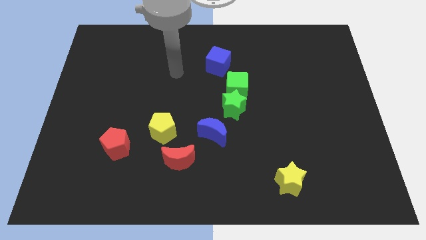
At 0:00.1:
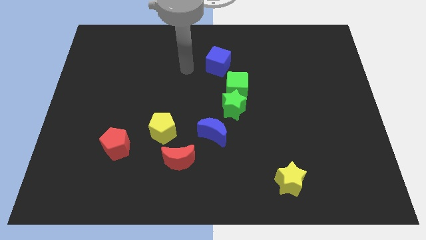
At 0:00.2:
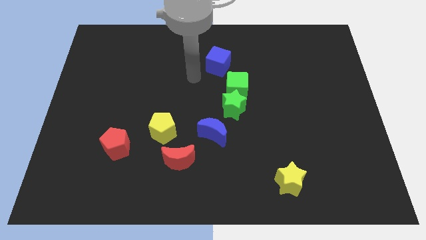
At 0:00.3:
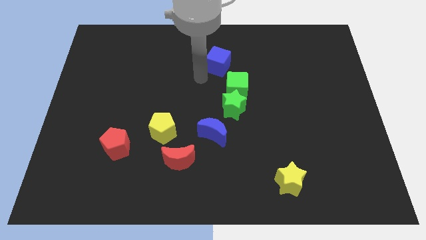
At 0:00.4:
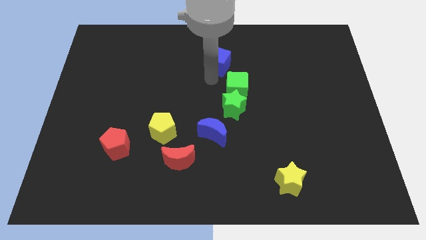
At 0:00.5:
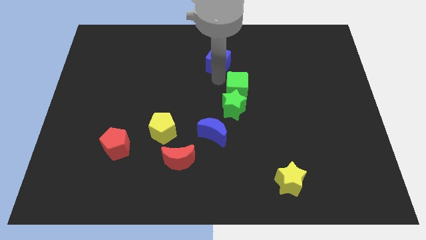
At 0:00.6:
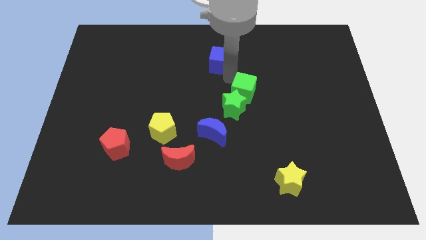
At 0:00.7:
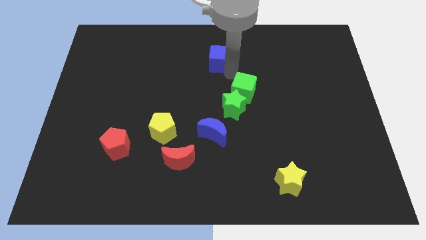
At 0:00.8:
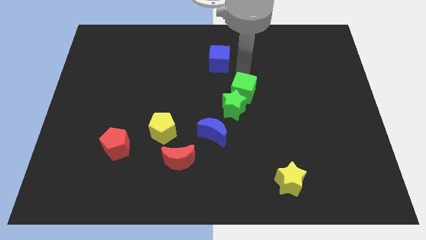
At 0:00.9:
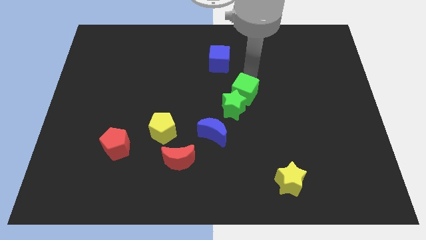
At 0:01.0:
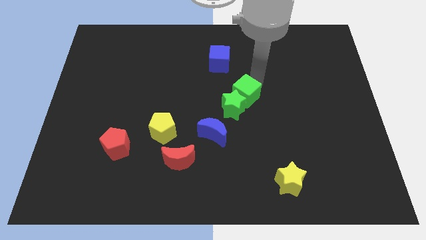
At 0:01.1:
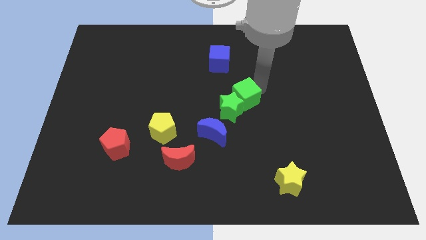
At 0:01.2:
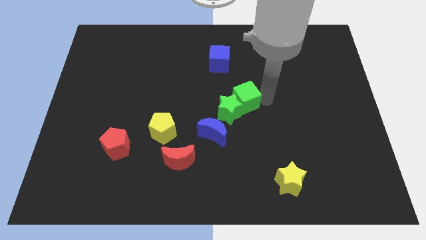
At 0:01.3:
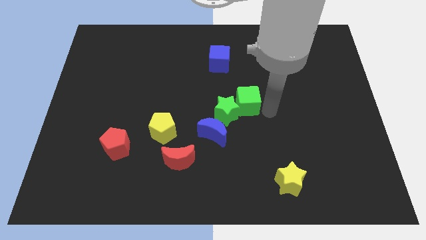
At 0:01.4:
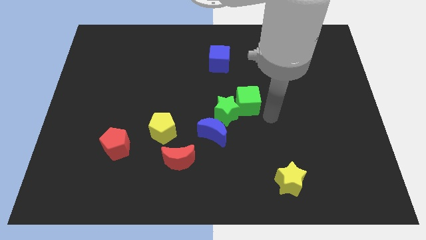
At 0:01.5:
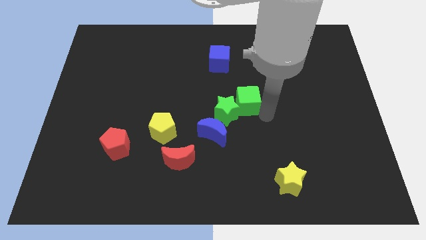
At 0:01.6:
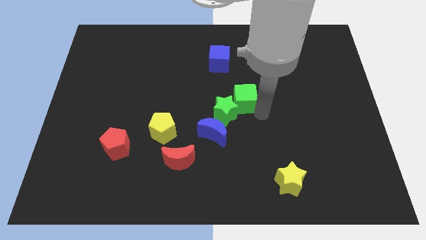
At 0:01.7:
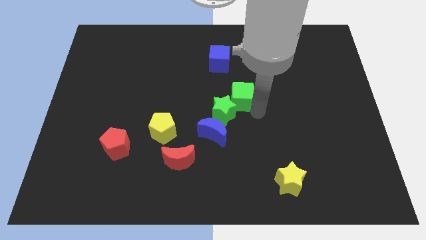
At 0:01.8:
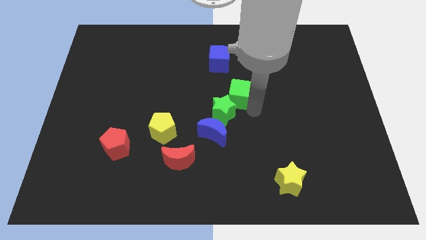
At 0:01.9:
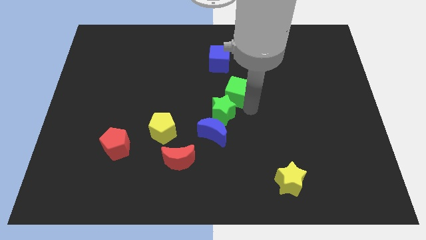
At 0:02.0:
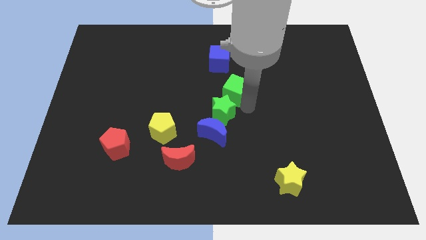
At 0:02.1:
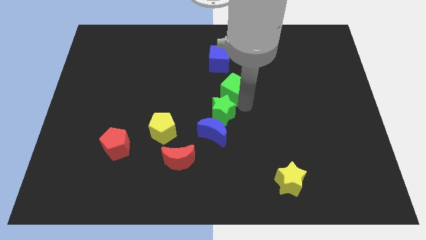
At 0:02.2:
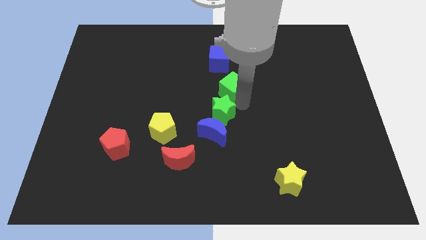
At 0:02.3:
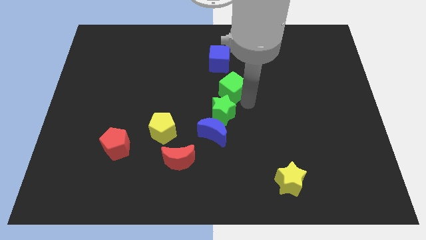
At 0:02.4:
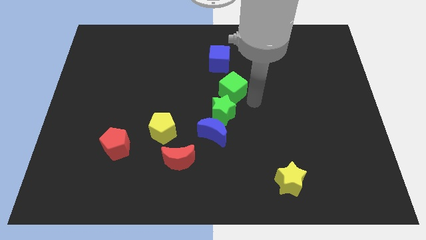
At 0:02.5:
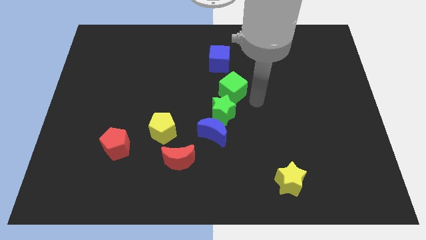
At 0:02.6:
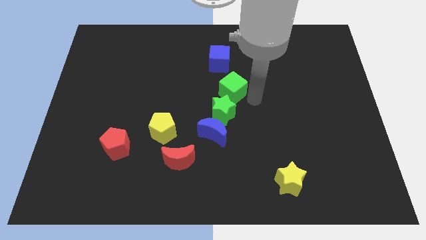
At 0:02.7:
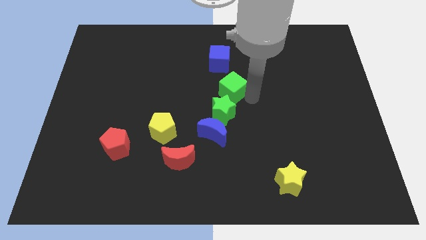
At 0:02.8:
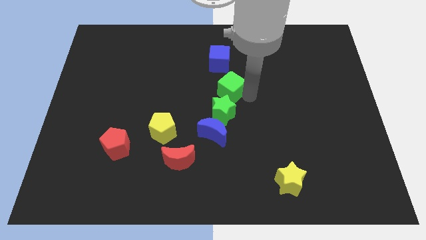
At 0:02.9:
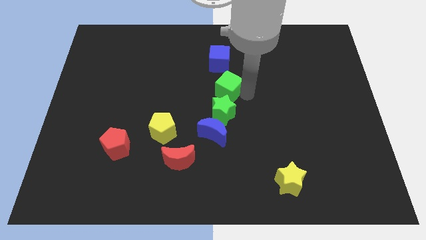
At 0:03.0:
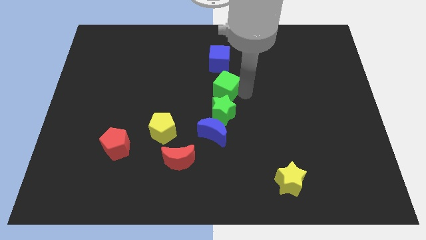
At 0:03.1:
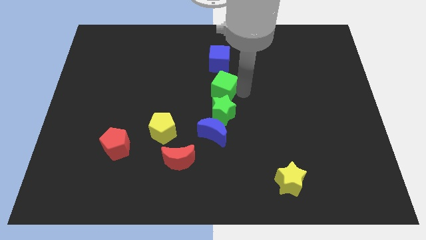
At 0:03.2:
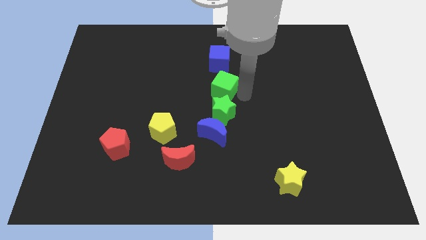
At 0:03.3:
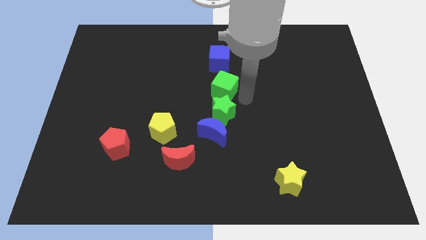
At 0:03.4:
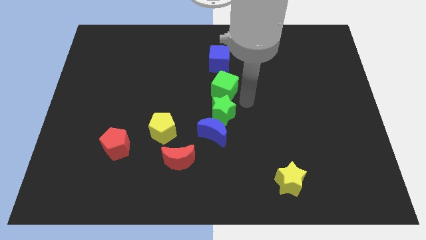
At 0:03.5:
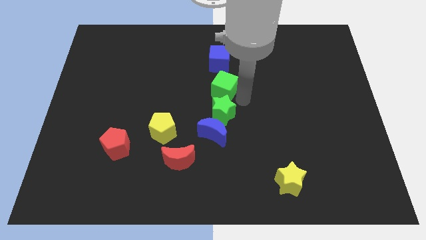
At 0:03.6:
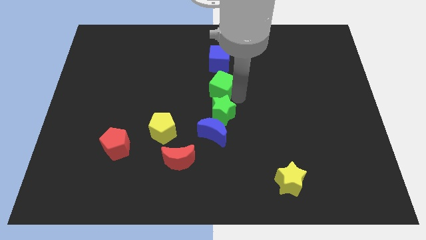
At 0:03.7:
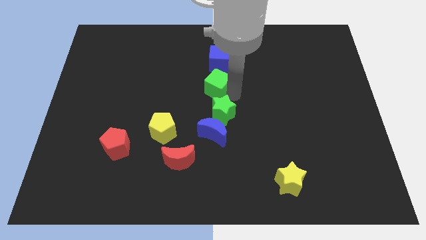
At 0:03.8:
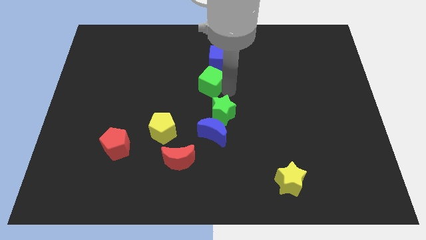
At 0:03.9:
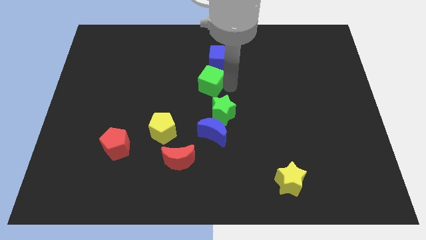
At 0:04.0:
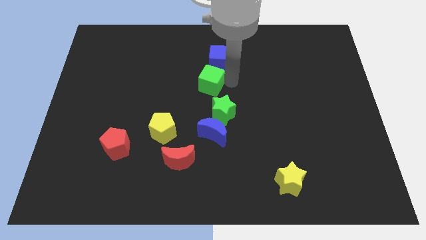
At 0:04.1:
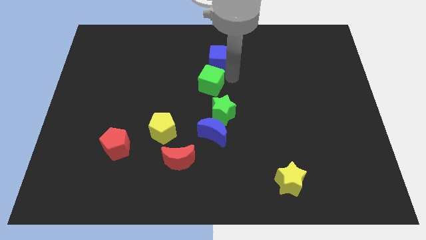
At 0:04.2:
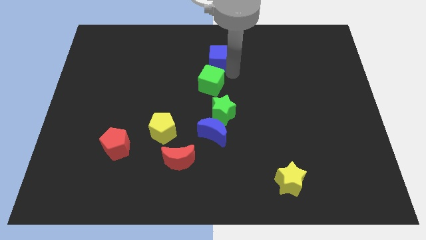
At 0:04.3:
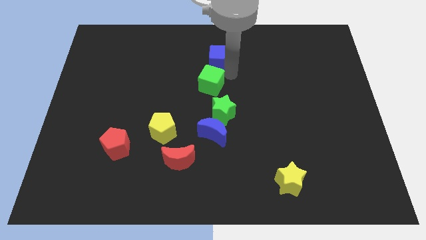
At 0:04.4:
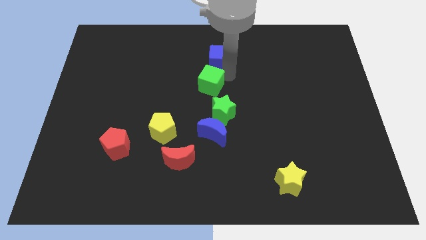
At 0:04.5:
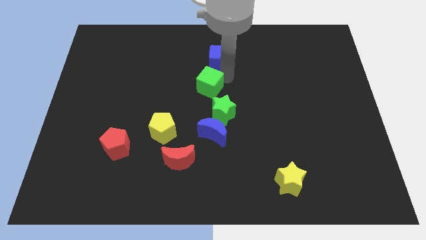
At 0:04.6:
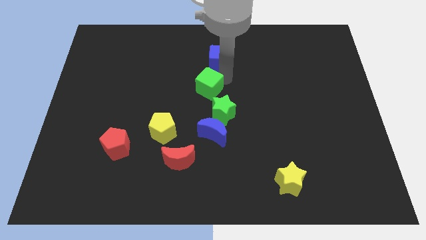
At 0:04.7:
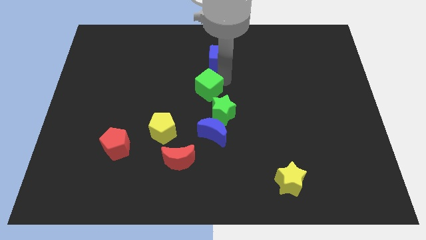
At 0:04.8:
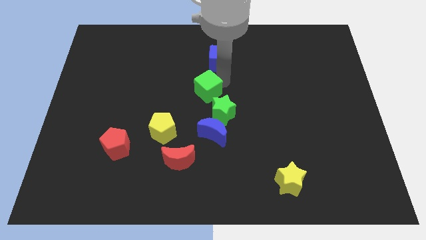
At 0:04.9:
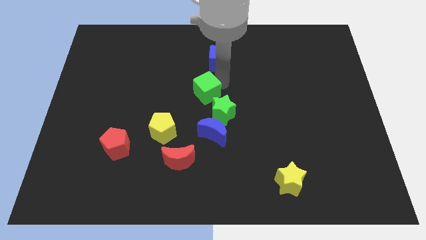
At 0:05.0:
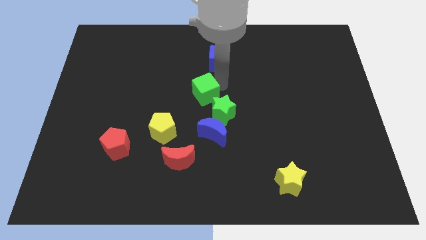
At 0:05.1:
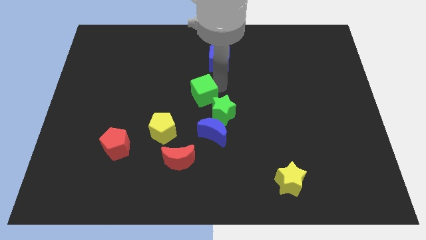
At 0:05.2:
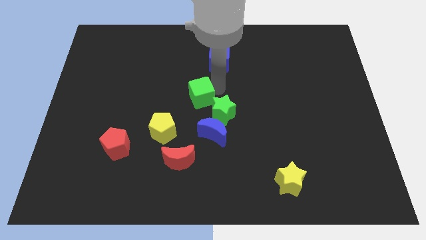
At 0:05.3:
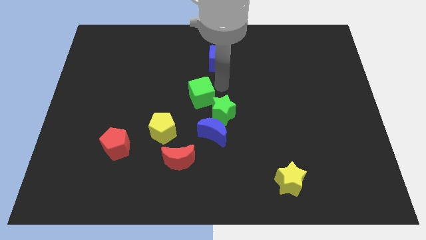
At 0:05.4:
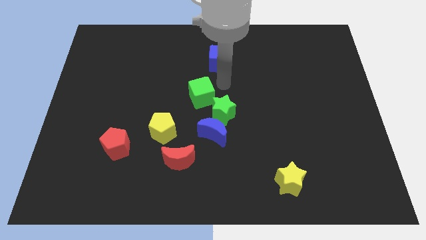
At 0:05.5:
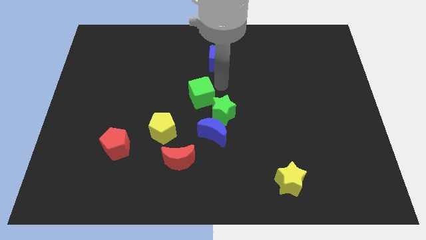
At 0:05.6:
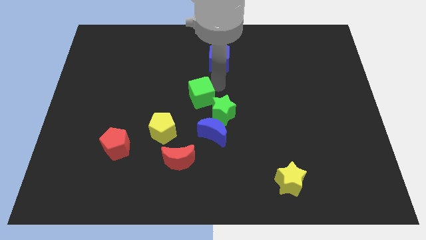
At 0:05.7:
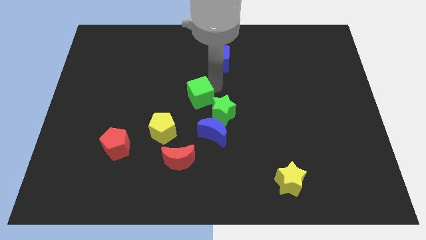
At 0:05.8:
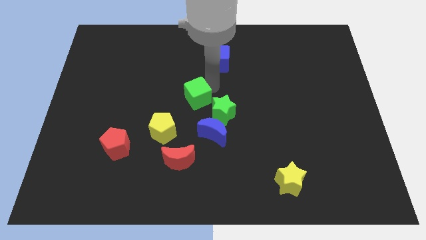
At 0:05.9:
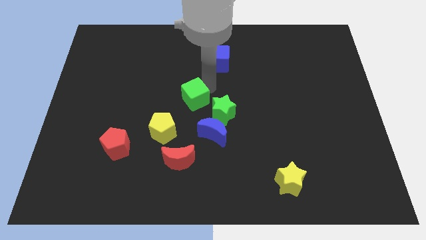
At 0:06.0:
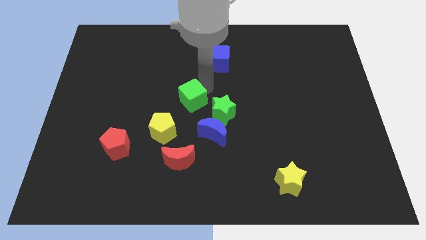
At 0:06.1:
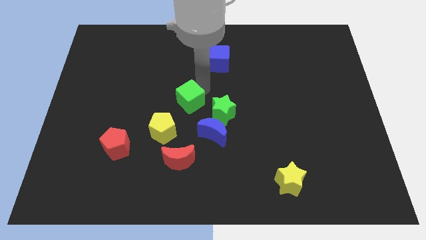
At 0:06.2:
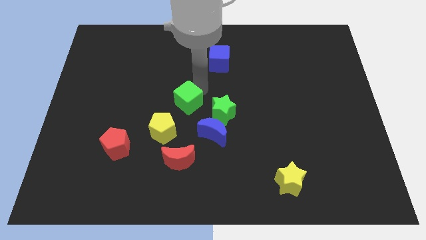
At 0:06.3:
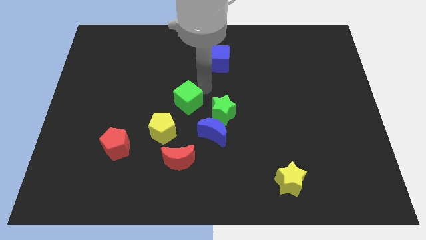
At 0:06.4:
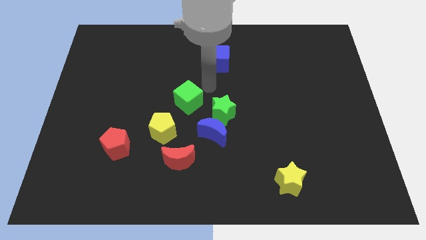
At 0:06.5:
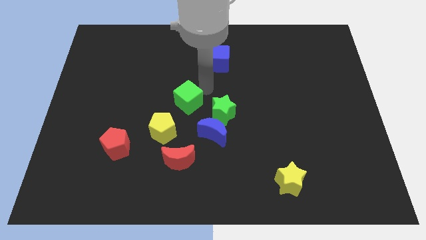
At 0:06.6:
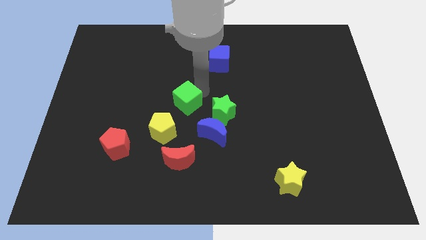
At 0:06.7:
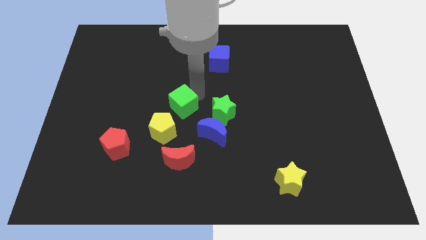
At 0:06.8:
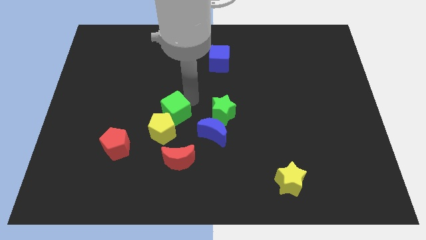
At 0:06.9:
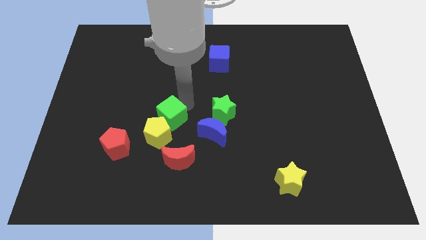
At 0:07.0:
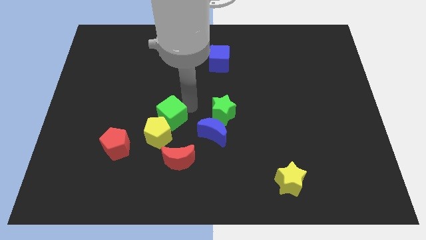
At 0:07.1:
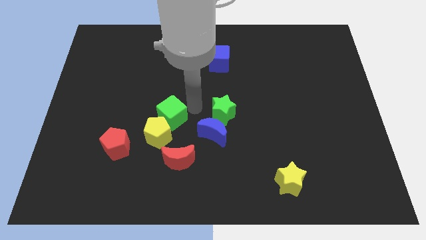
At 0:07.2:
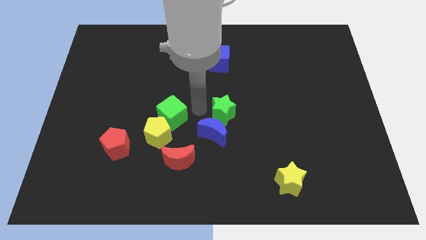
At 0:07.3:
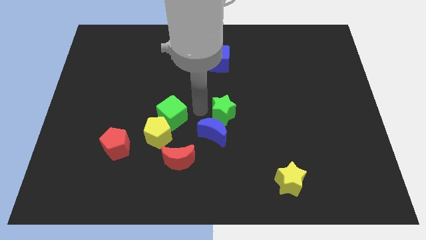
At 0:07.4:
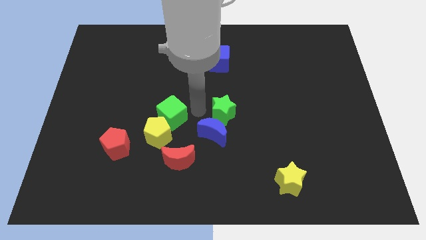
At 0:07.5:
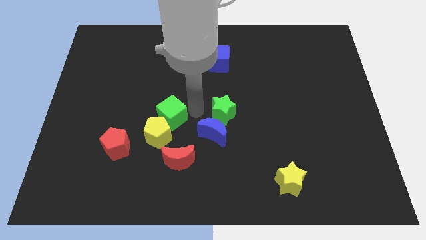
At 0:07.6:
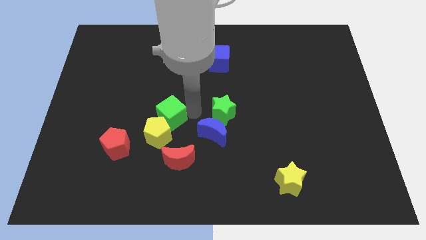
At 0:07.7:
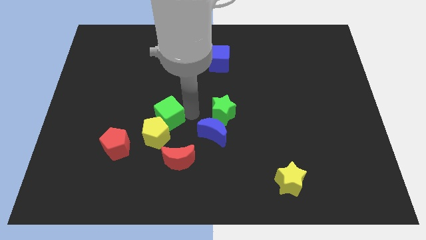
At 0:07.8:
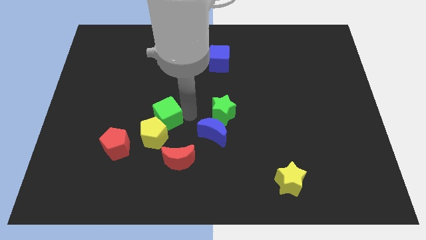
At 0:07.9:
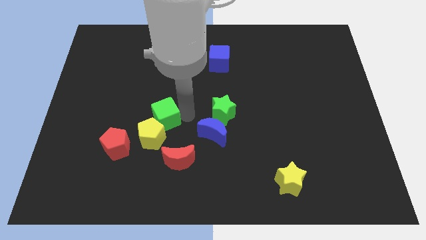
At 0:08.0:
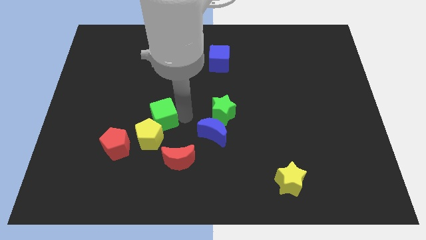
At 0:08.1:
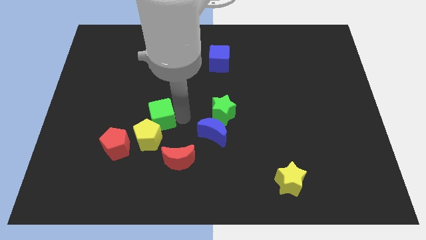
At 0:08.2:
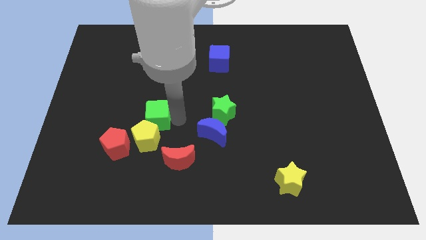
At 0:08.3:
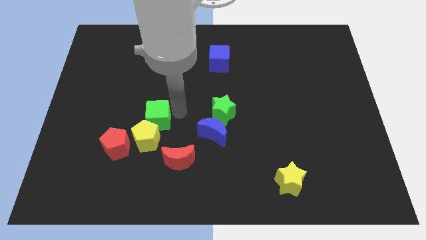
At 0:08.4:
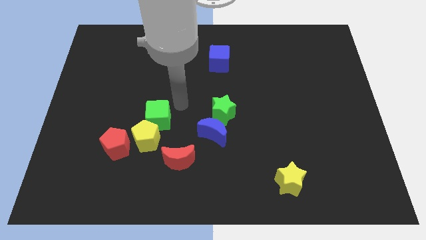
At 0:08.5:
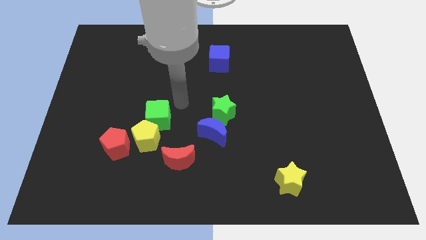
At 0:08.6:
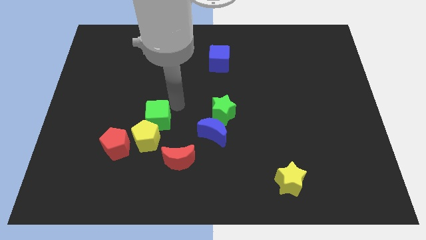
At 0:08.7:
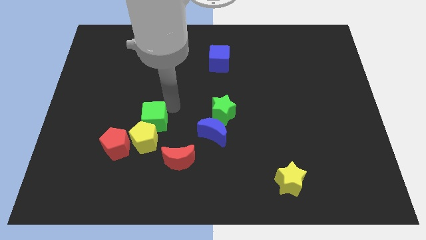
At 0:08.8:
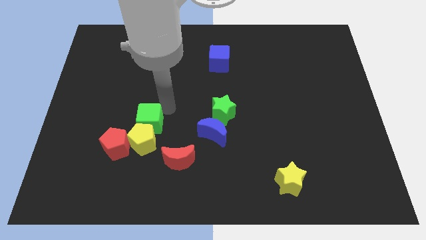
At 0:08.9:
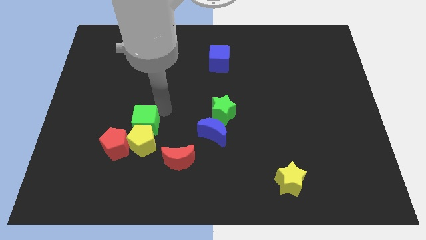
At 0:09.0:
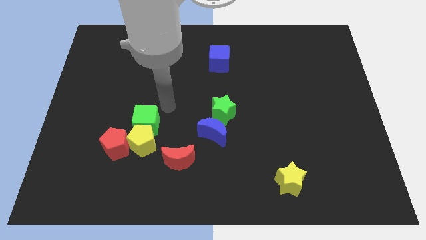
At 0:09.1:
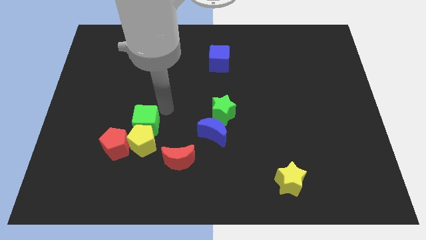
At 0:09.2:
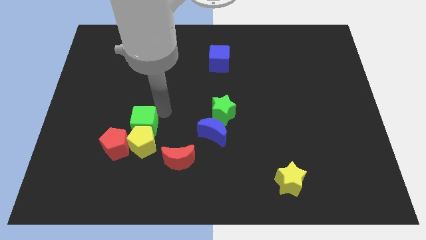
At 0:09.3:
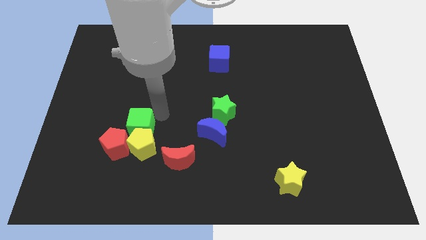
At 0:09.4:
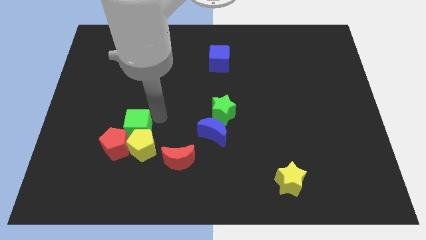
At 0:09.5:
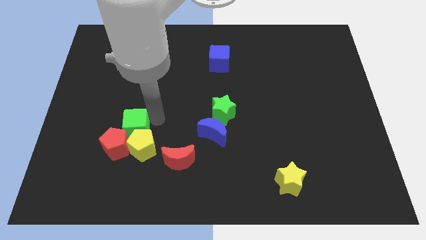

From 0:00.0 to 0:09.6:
move the green cube close to the red pentagon
